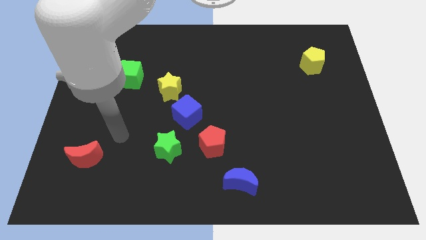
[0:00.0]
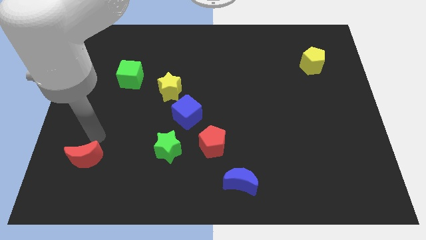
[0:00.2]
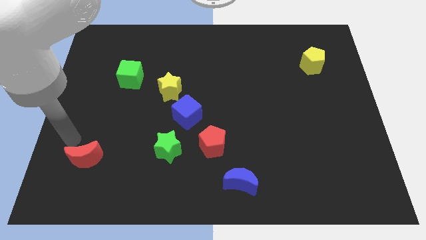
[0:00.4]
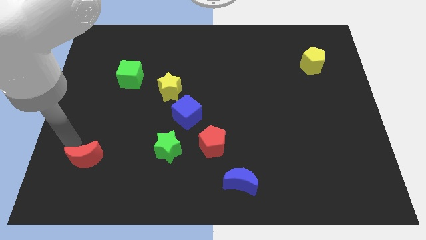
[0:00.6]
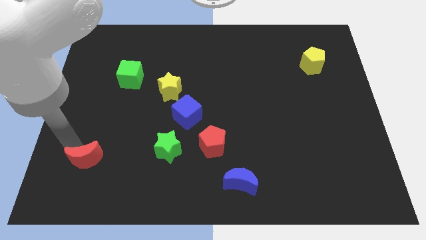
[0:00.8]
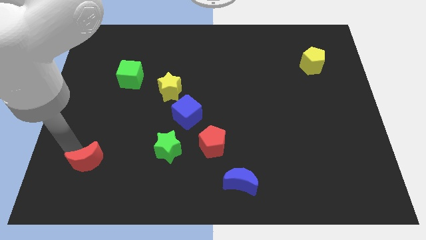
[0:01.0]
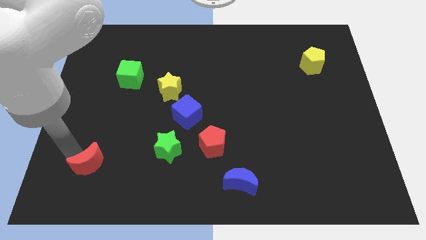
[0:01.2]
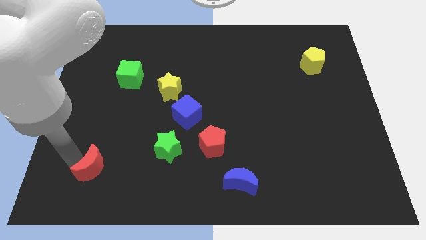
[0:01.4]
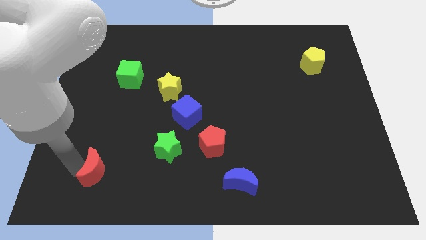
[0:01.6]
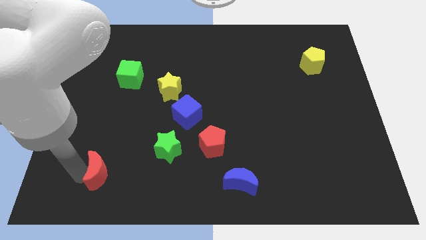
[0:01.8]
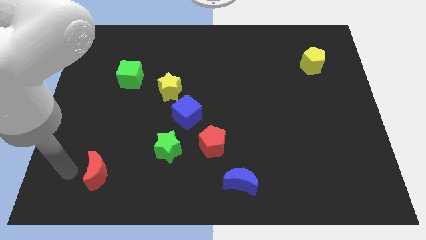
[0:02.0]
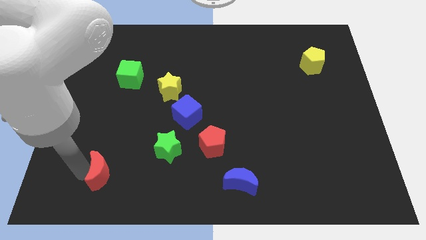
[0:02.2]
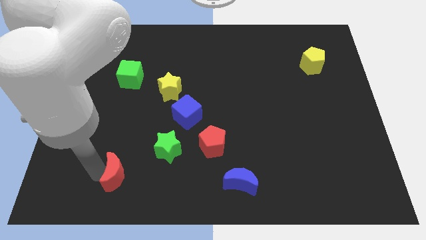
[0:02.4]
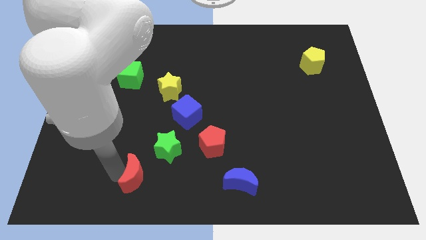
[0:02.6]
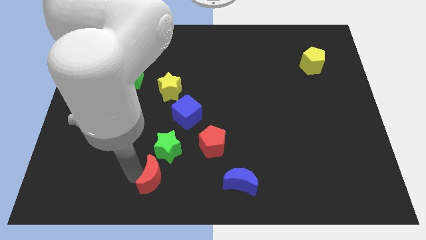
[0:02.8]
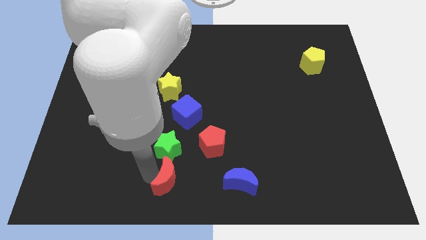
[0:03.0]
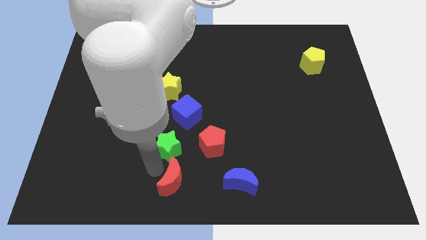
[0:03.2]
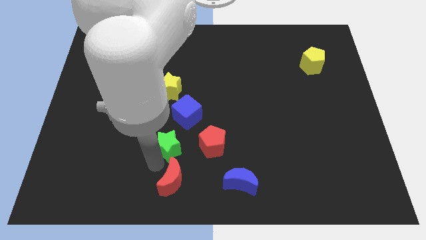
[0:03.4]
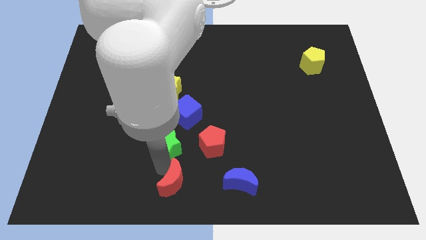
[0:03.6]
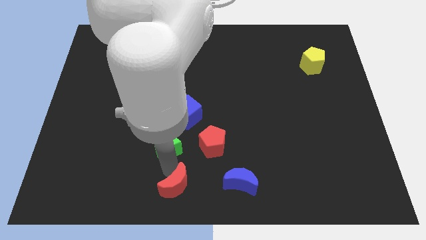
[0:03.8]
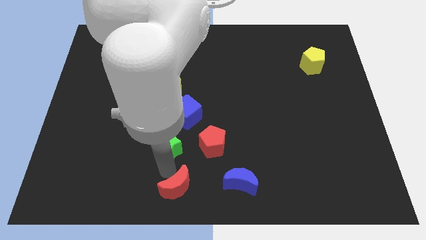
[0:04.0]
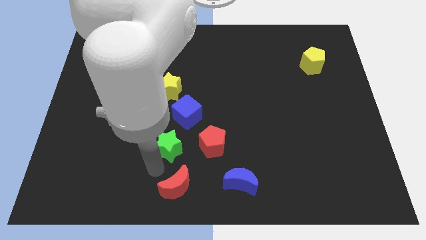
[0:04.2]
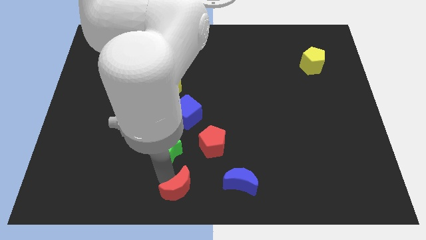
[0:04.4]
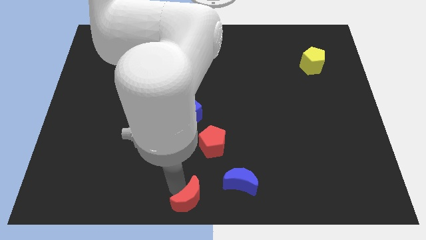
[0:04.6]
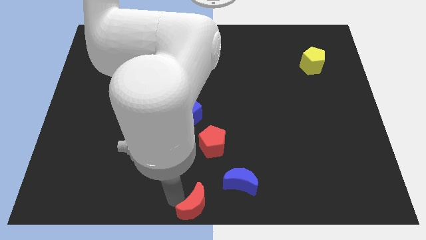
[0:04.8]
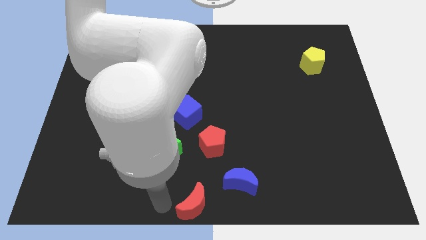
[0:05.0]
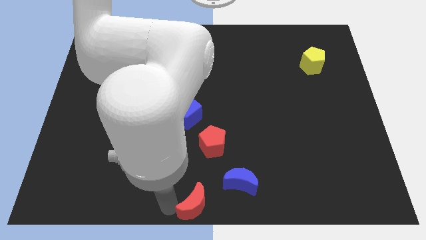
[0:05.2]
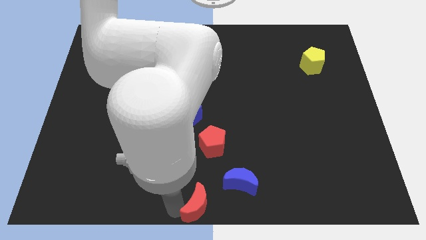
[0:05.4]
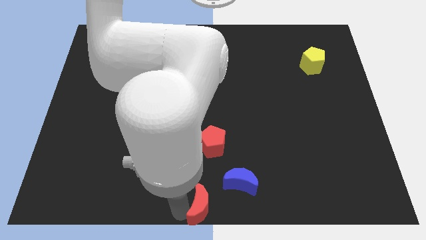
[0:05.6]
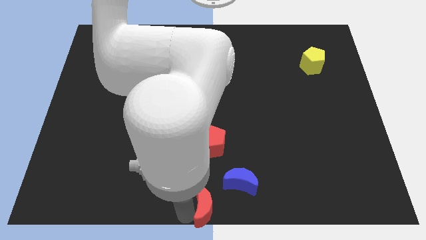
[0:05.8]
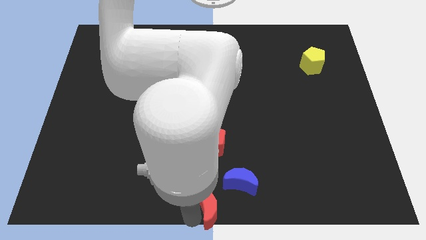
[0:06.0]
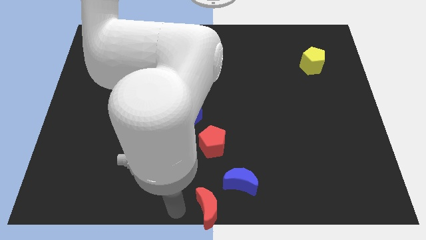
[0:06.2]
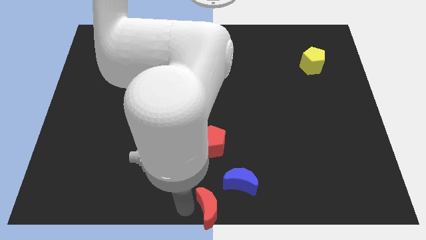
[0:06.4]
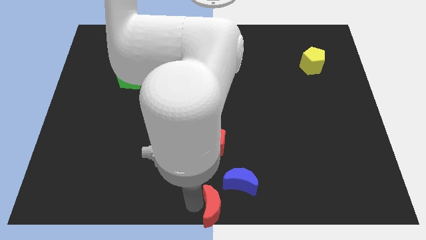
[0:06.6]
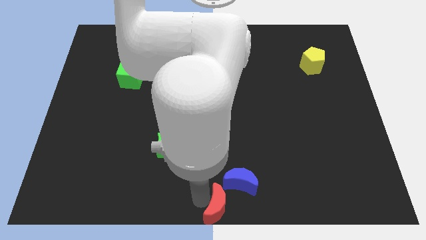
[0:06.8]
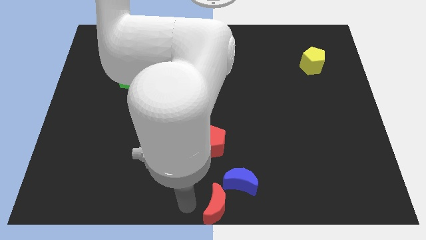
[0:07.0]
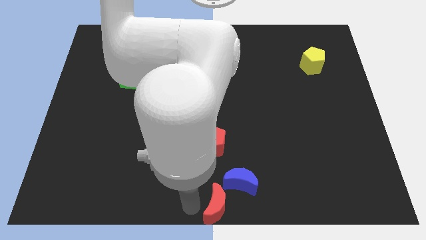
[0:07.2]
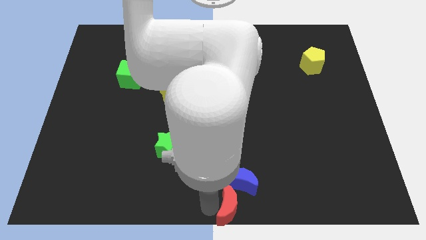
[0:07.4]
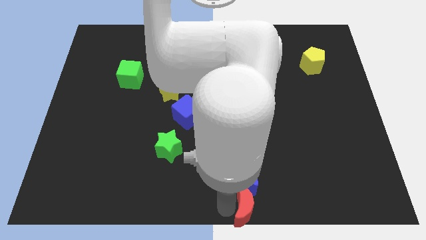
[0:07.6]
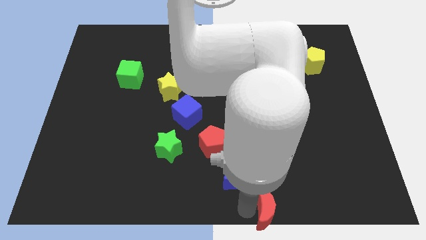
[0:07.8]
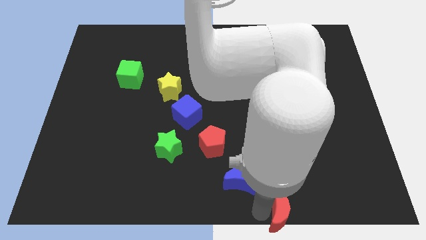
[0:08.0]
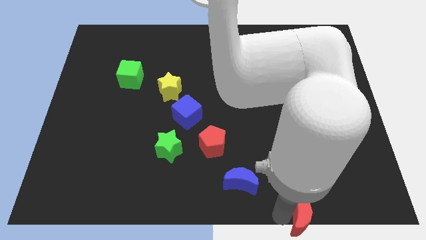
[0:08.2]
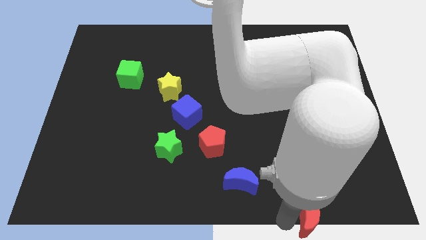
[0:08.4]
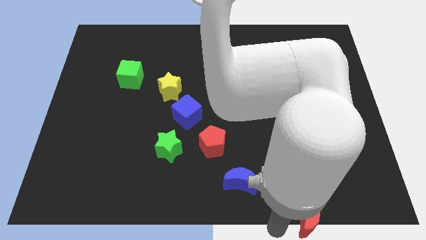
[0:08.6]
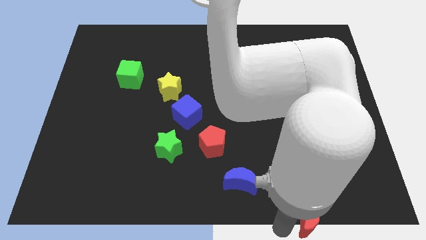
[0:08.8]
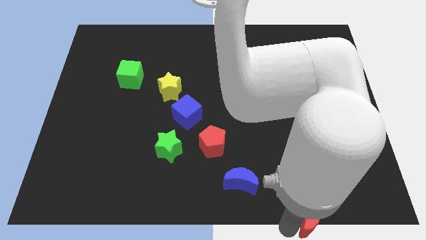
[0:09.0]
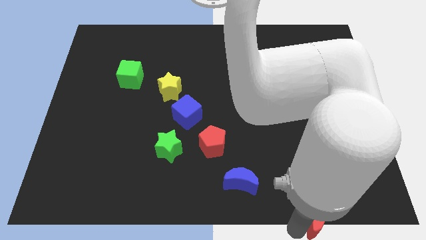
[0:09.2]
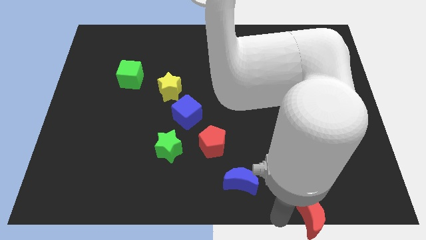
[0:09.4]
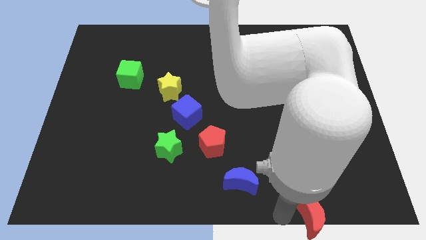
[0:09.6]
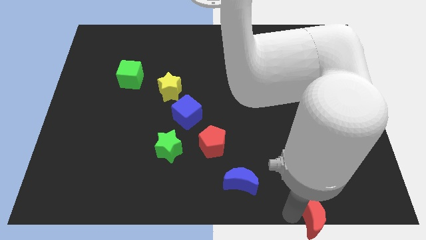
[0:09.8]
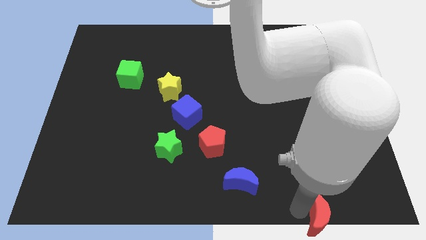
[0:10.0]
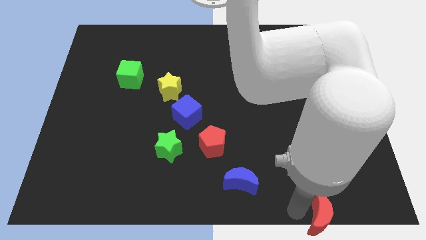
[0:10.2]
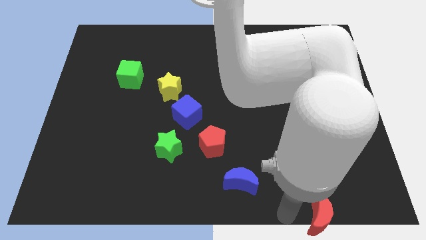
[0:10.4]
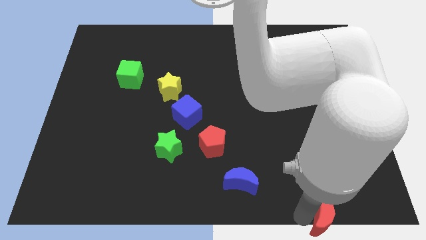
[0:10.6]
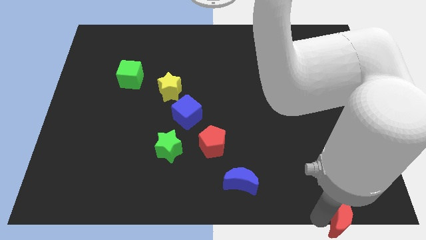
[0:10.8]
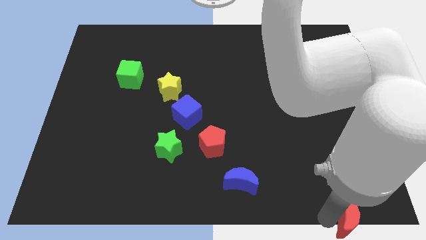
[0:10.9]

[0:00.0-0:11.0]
push the red moon to the bottom right
